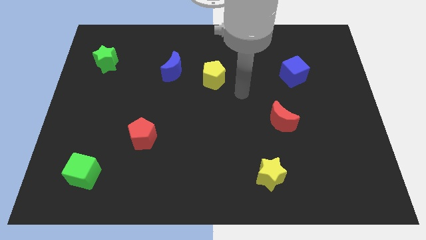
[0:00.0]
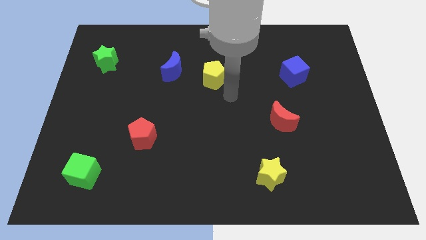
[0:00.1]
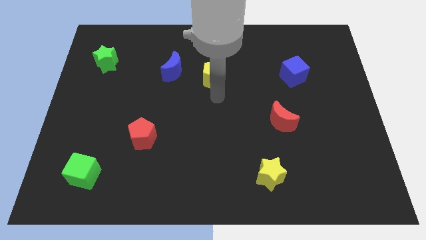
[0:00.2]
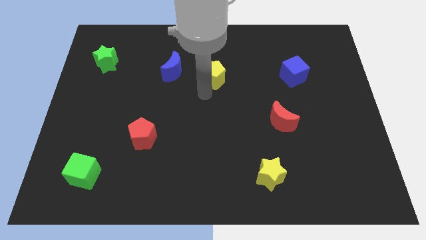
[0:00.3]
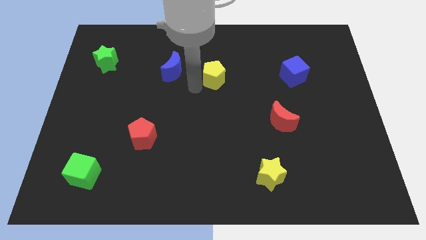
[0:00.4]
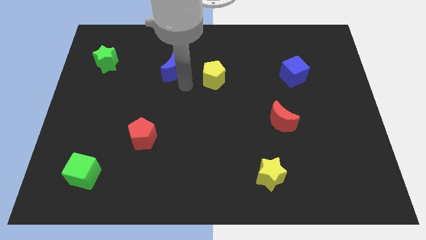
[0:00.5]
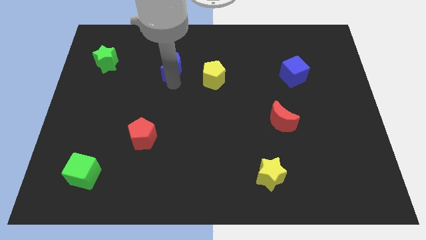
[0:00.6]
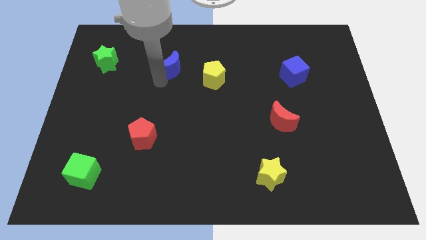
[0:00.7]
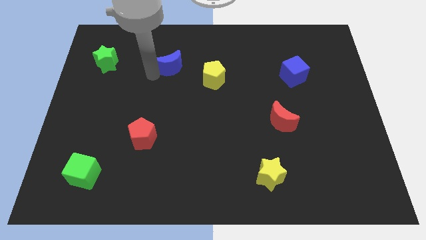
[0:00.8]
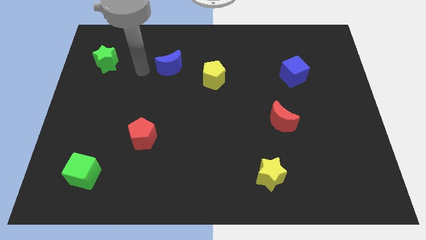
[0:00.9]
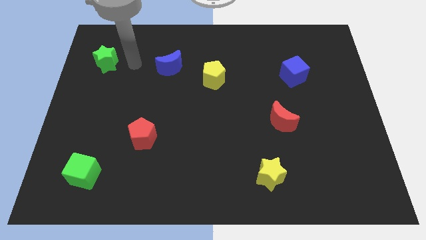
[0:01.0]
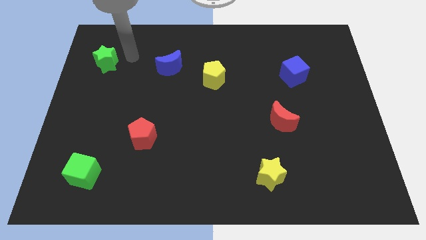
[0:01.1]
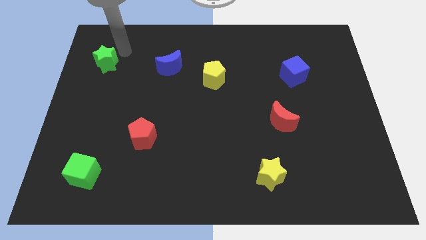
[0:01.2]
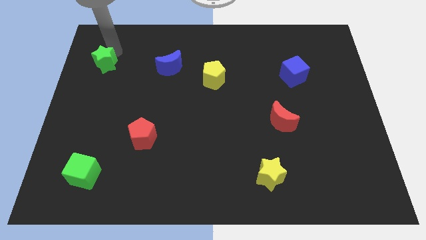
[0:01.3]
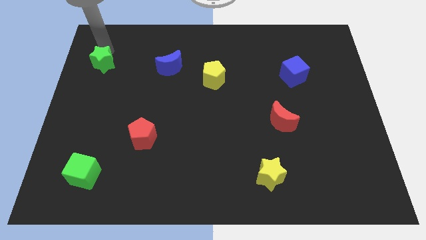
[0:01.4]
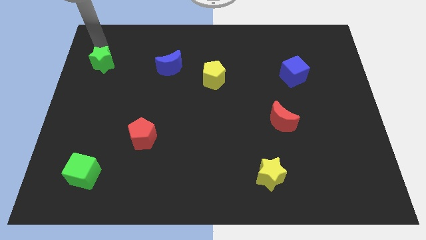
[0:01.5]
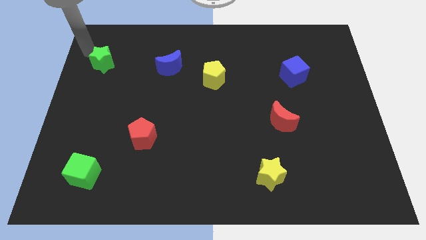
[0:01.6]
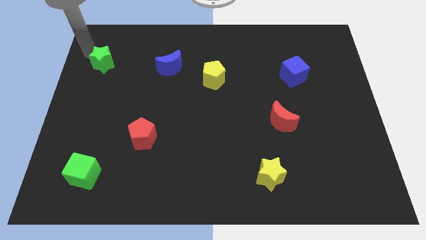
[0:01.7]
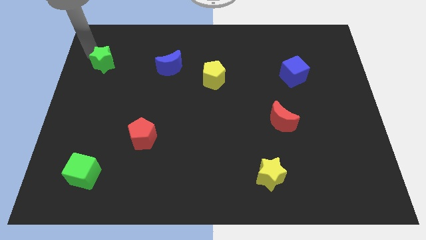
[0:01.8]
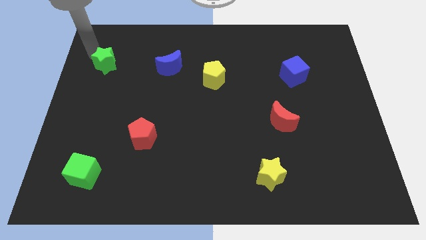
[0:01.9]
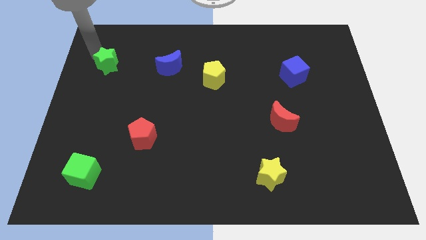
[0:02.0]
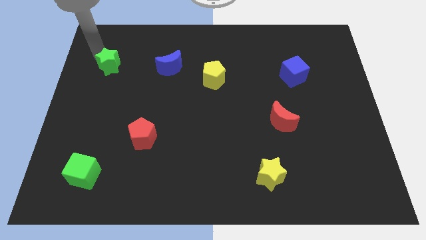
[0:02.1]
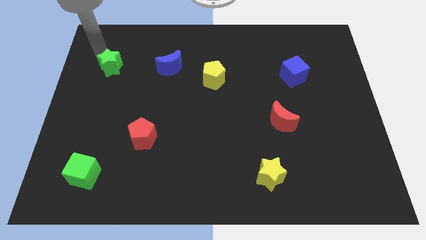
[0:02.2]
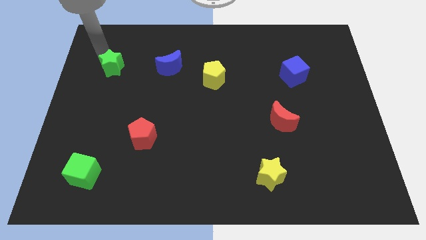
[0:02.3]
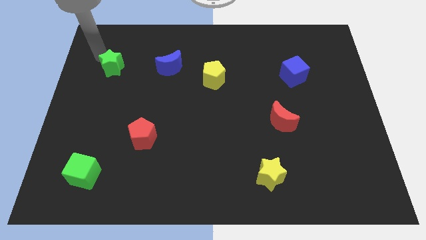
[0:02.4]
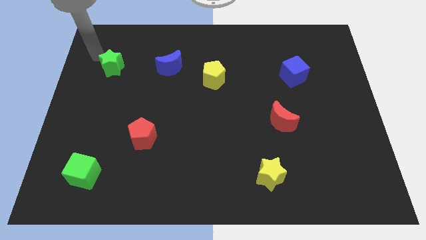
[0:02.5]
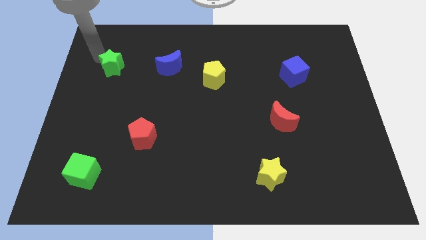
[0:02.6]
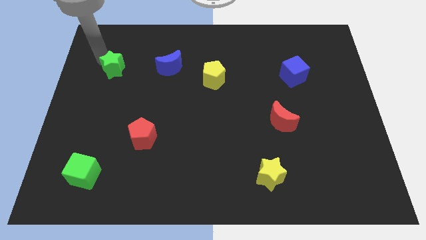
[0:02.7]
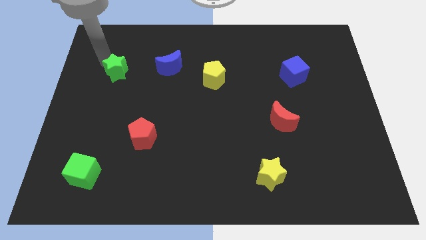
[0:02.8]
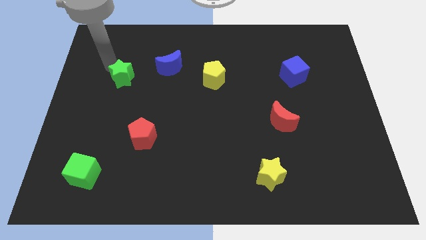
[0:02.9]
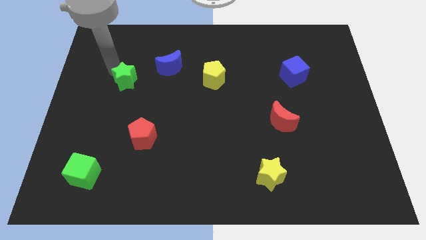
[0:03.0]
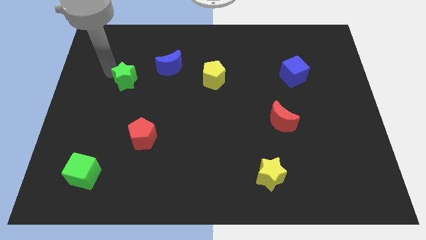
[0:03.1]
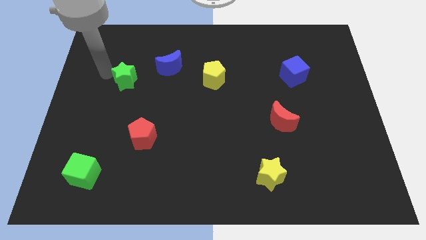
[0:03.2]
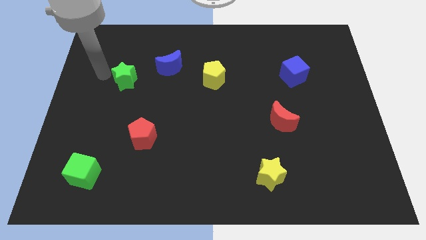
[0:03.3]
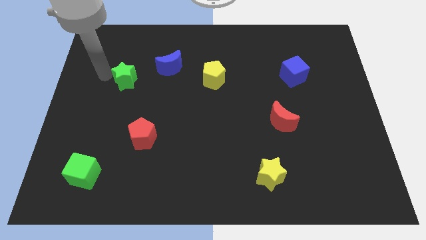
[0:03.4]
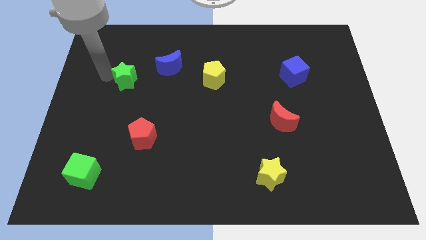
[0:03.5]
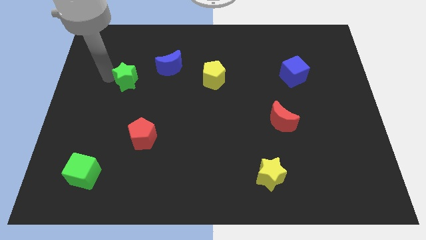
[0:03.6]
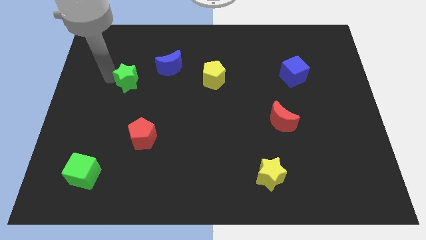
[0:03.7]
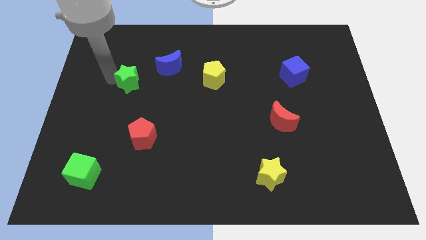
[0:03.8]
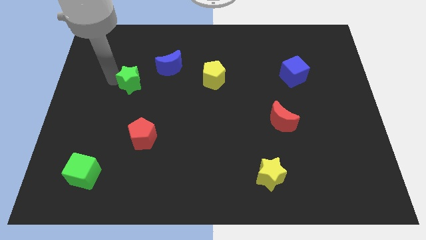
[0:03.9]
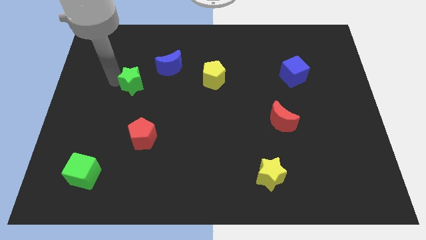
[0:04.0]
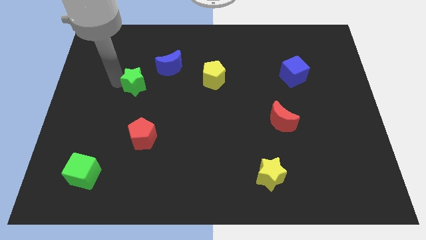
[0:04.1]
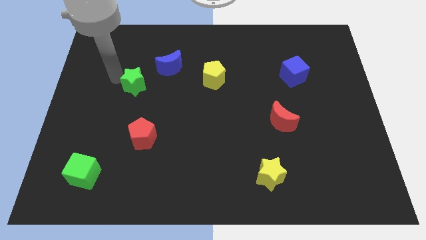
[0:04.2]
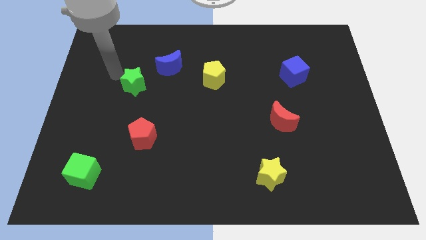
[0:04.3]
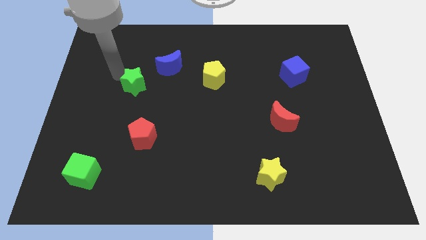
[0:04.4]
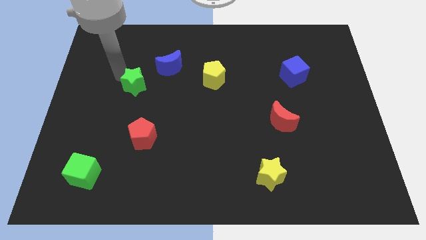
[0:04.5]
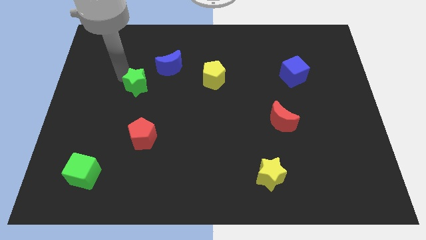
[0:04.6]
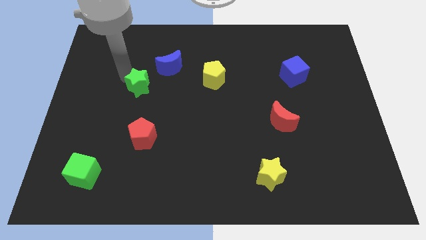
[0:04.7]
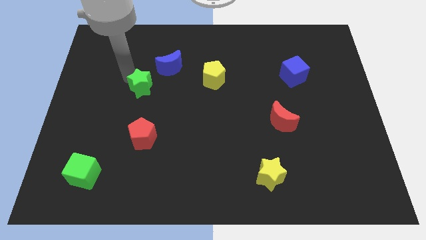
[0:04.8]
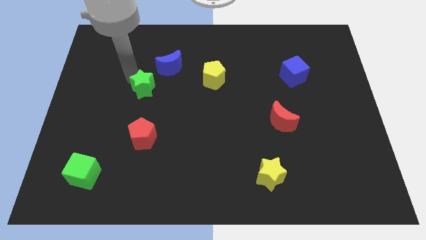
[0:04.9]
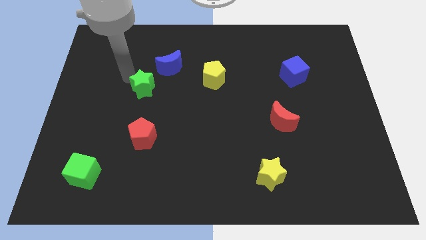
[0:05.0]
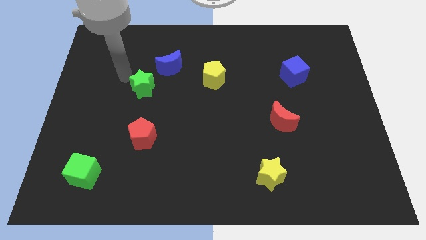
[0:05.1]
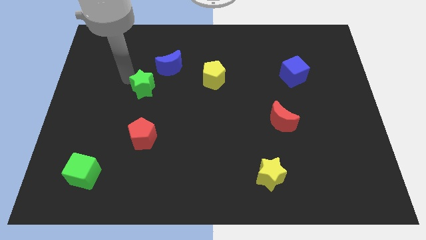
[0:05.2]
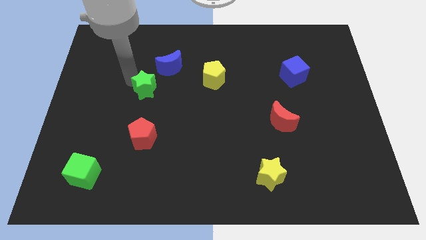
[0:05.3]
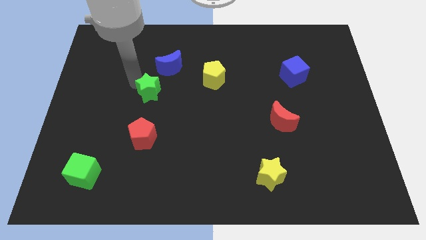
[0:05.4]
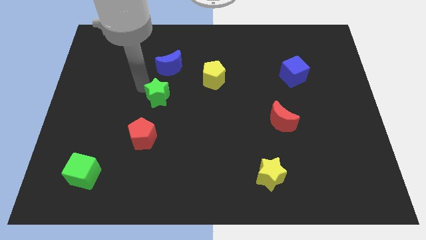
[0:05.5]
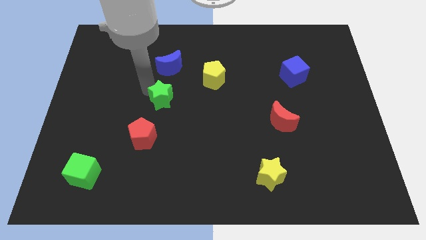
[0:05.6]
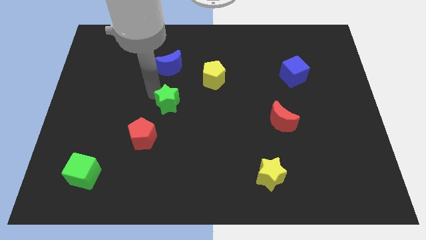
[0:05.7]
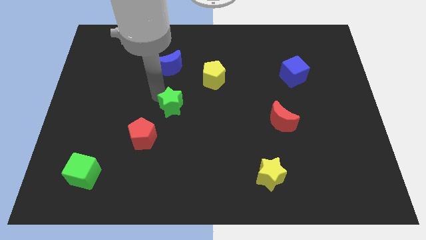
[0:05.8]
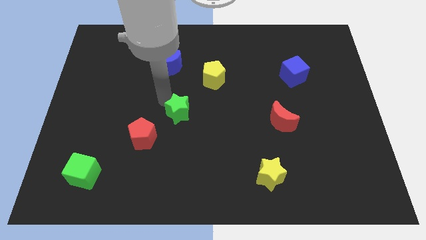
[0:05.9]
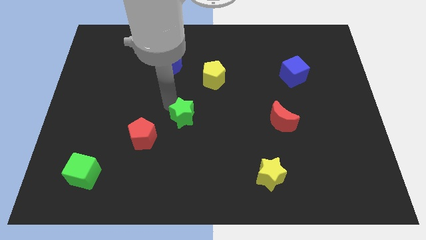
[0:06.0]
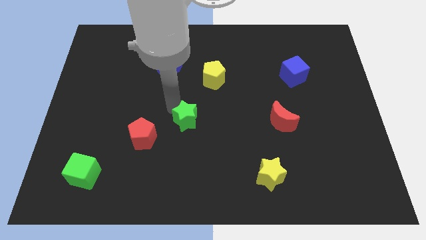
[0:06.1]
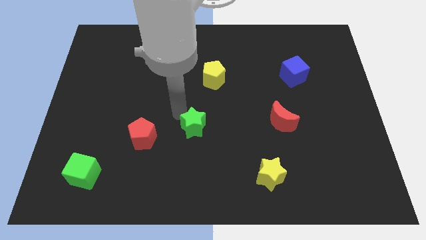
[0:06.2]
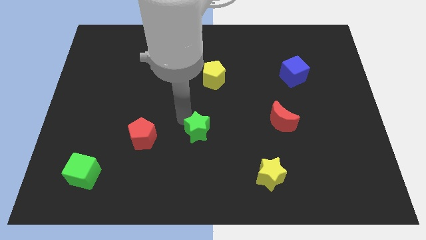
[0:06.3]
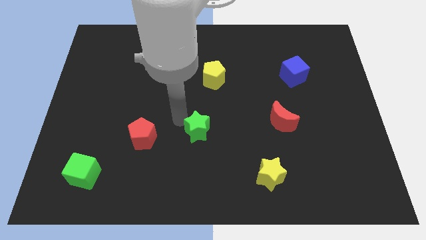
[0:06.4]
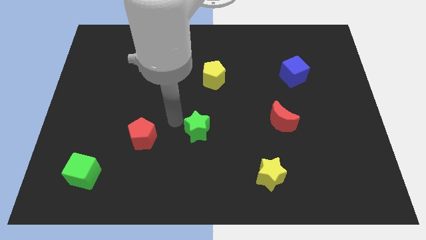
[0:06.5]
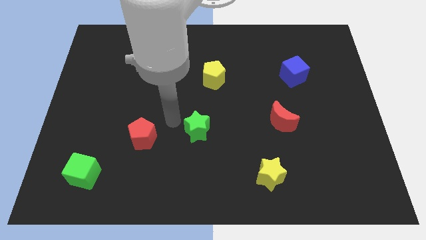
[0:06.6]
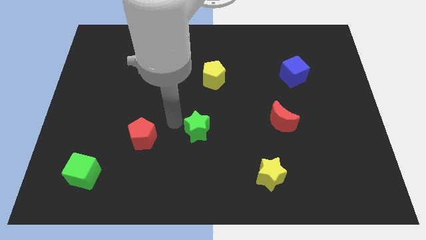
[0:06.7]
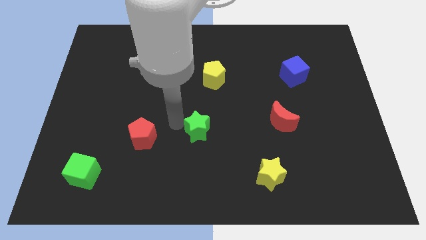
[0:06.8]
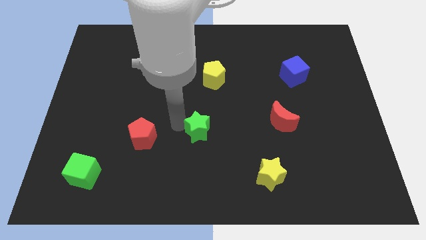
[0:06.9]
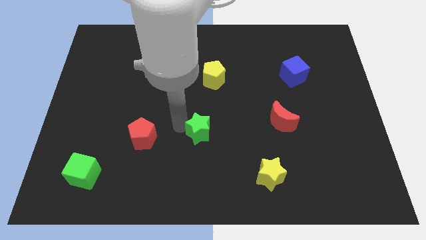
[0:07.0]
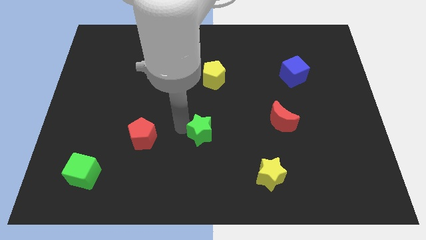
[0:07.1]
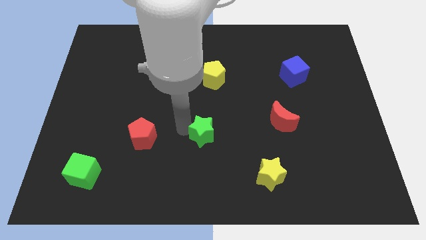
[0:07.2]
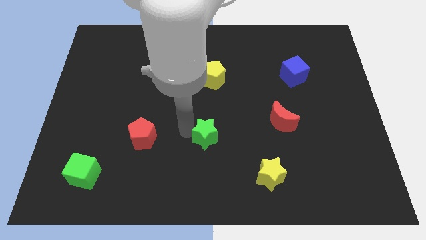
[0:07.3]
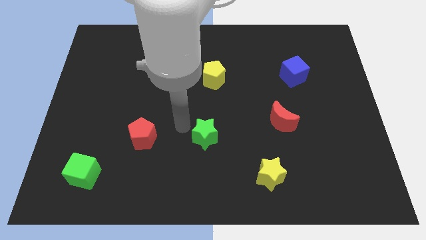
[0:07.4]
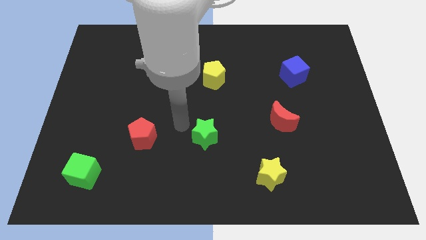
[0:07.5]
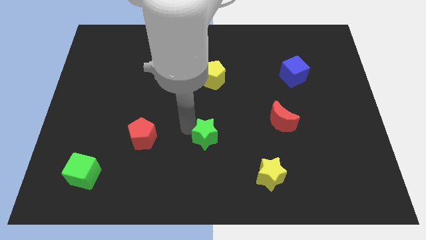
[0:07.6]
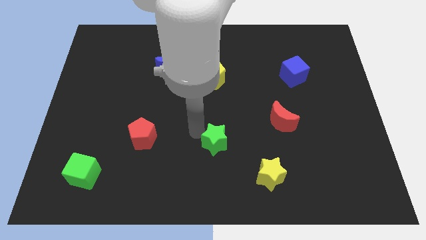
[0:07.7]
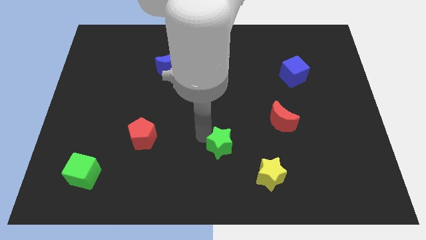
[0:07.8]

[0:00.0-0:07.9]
push the green star to the top left side of the yellow star

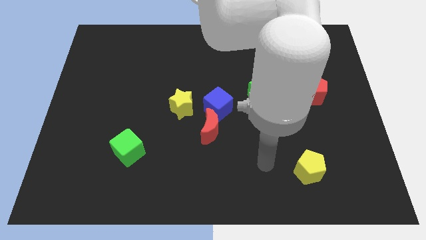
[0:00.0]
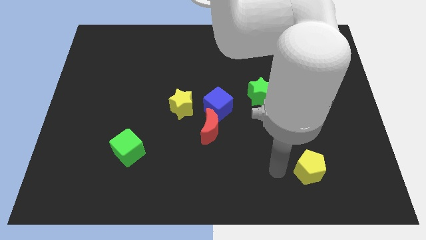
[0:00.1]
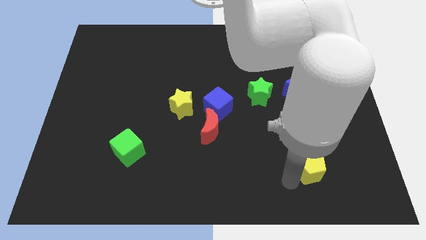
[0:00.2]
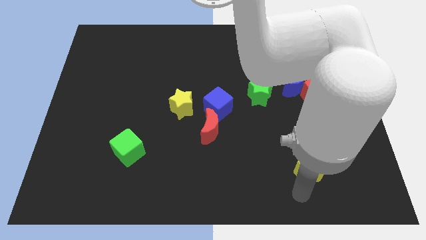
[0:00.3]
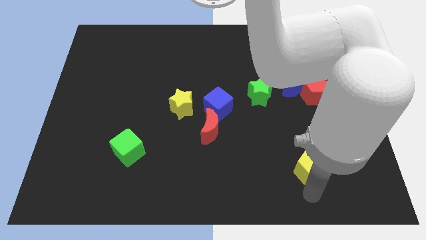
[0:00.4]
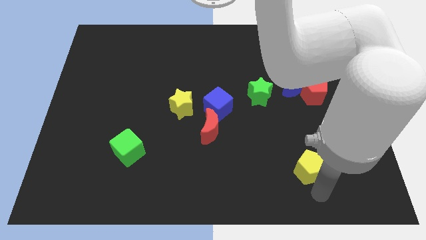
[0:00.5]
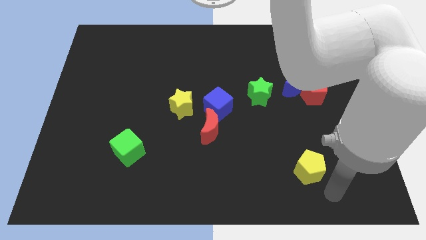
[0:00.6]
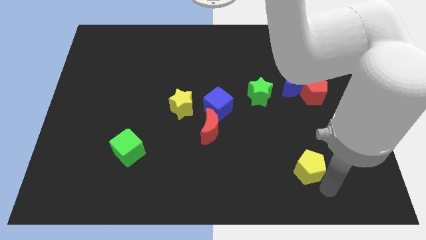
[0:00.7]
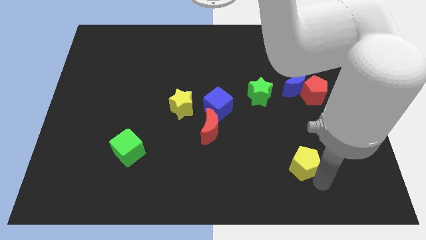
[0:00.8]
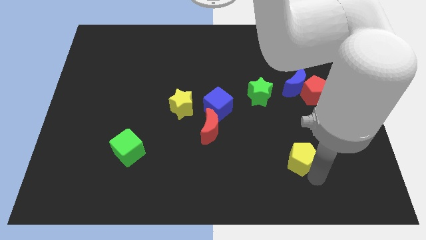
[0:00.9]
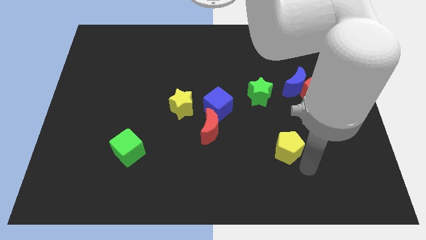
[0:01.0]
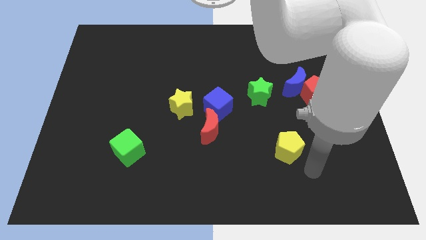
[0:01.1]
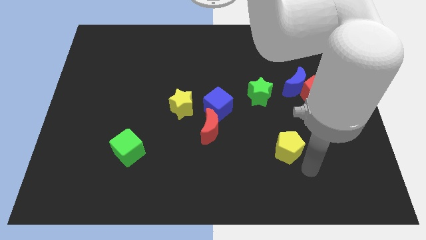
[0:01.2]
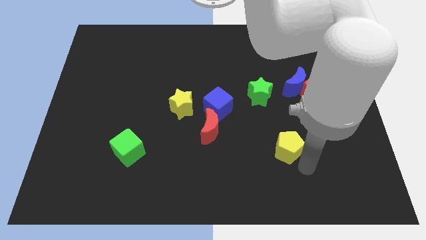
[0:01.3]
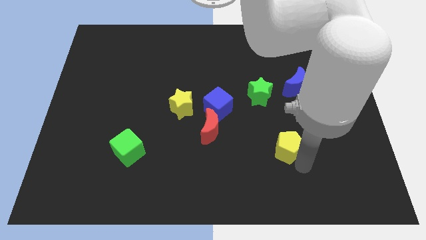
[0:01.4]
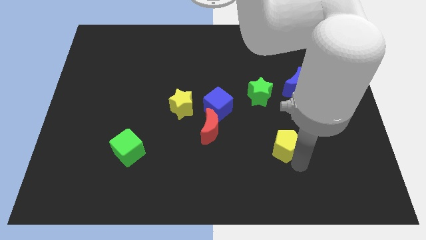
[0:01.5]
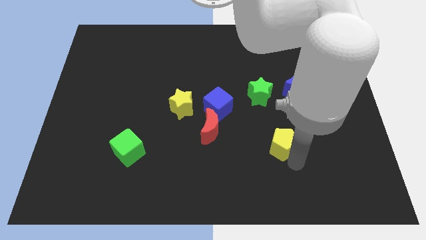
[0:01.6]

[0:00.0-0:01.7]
move the yellow pentagon to the bottom of the green star
